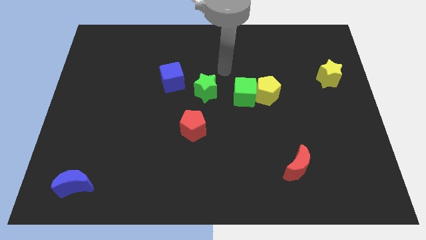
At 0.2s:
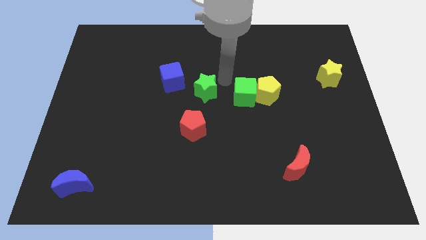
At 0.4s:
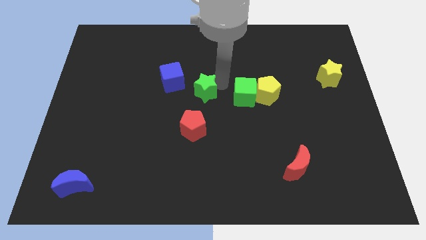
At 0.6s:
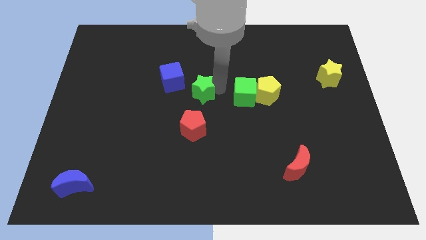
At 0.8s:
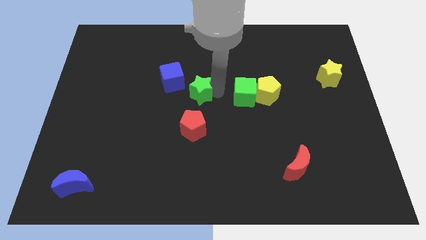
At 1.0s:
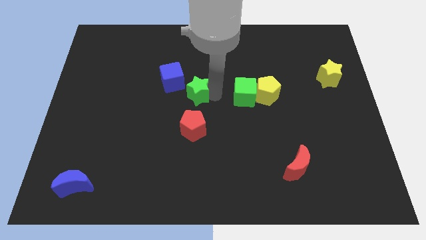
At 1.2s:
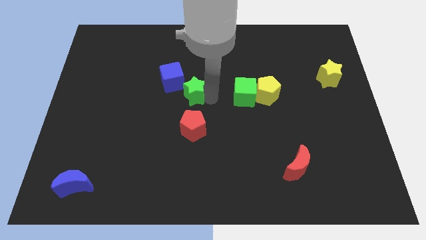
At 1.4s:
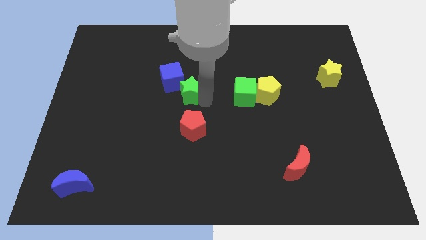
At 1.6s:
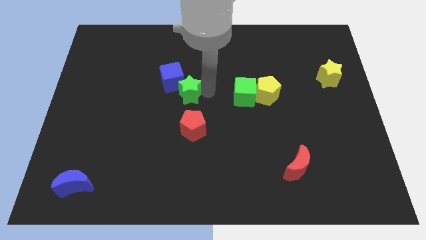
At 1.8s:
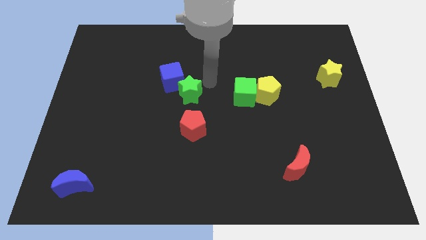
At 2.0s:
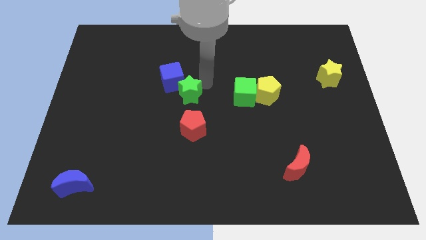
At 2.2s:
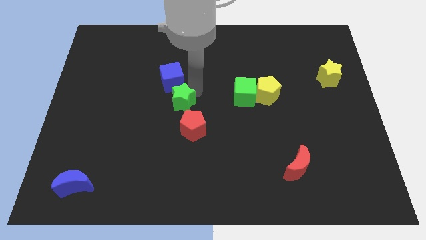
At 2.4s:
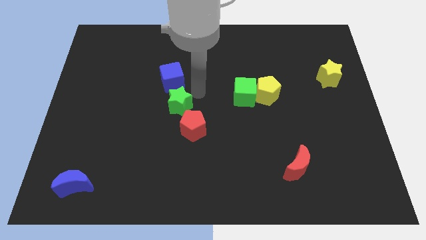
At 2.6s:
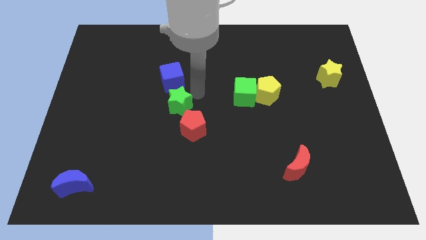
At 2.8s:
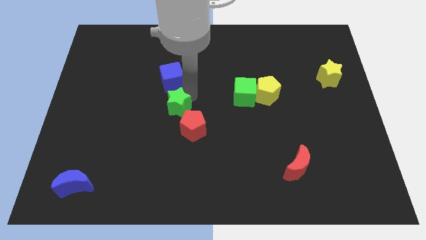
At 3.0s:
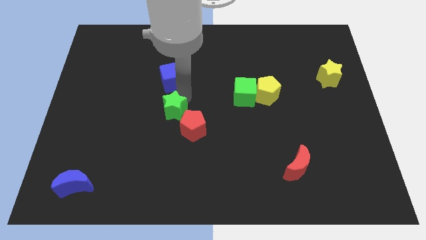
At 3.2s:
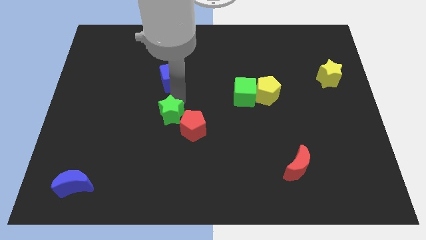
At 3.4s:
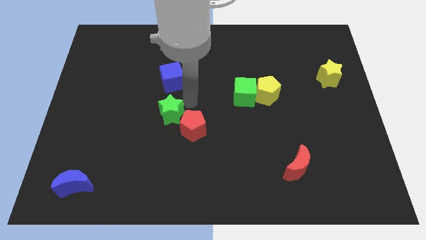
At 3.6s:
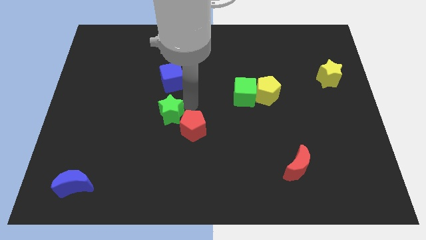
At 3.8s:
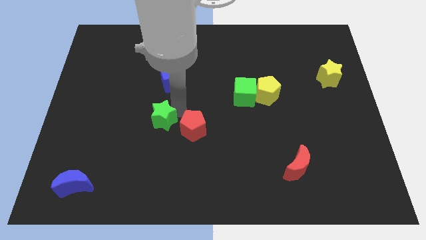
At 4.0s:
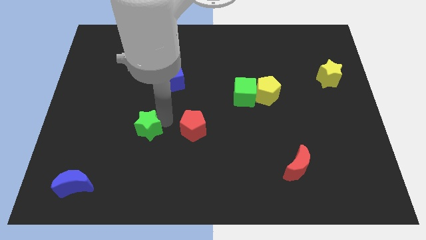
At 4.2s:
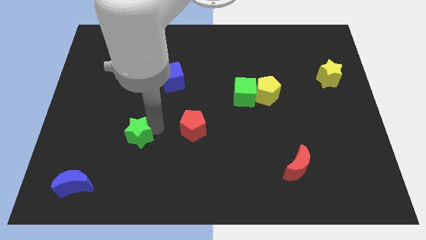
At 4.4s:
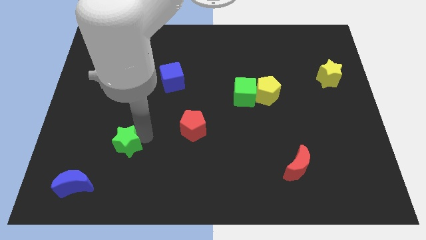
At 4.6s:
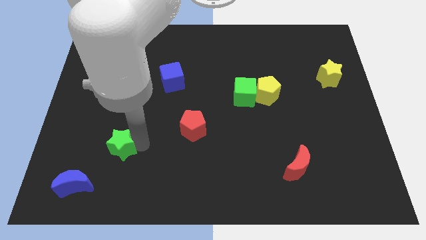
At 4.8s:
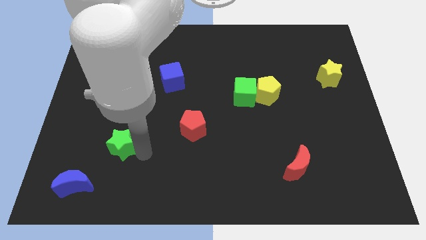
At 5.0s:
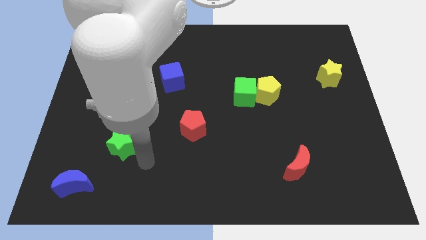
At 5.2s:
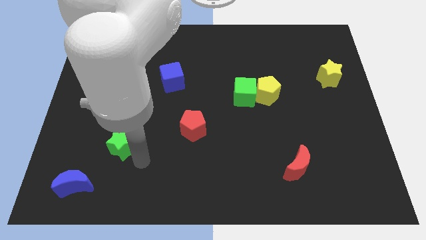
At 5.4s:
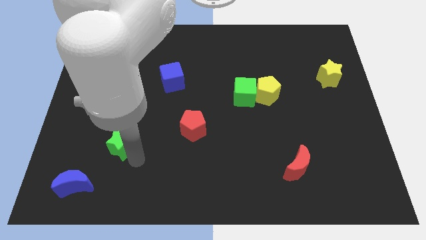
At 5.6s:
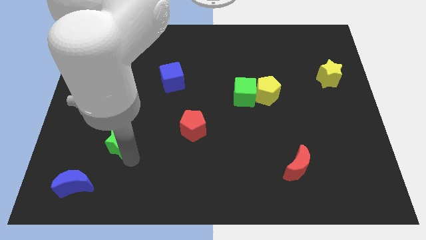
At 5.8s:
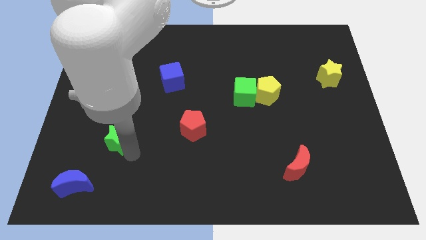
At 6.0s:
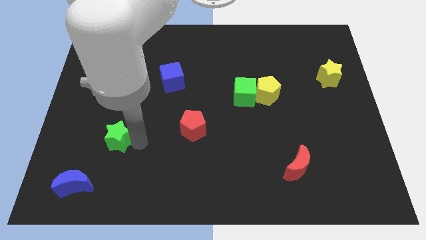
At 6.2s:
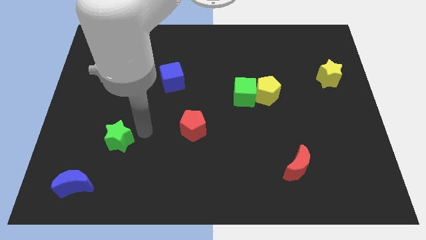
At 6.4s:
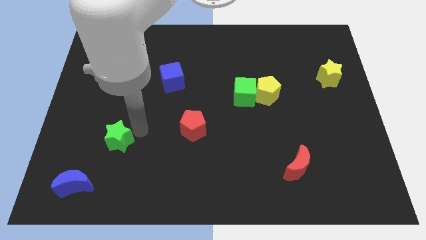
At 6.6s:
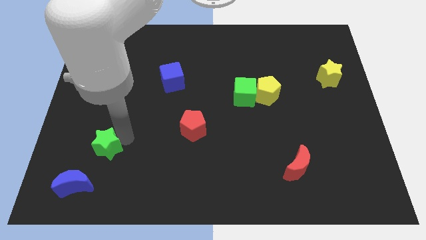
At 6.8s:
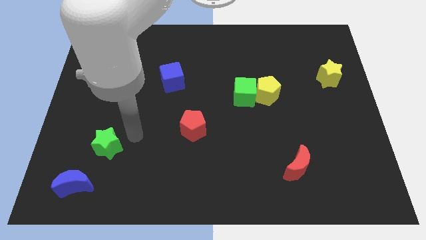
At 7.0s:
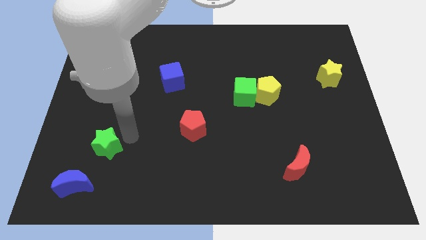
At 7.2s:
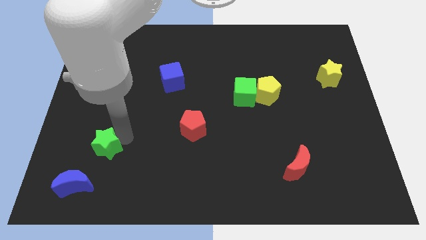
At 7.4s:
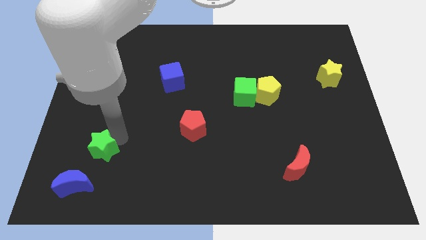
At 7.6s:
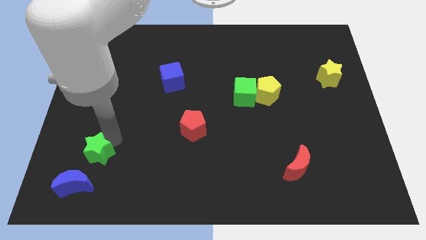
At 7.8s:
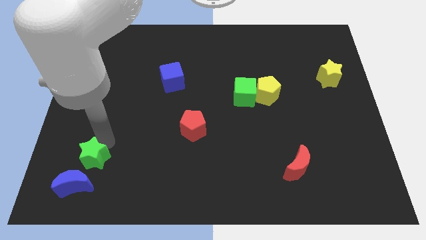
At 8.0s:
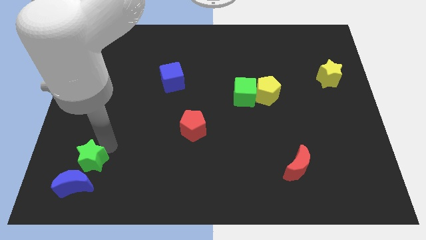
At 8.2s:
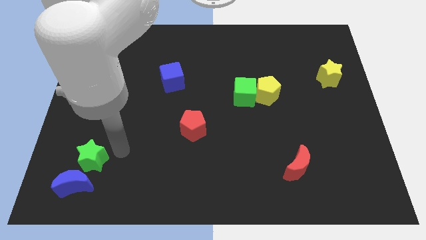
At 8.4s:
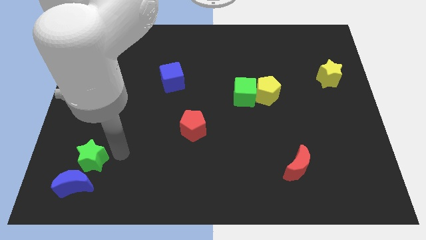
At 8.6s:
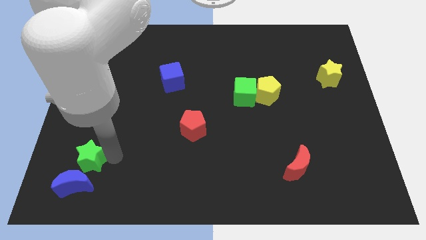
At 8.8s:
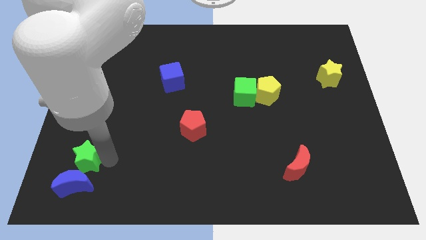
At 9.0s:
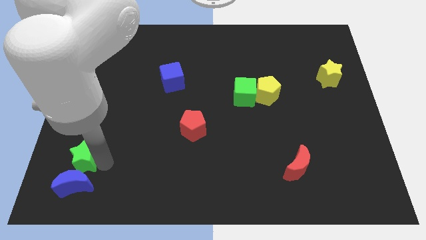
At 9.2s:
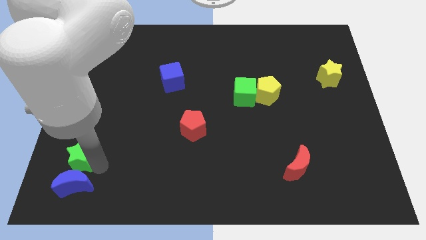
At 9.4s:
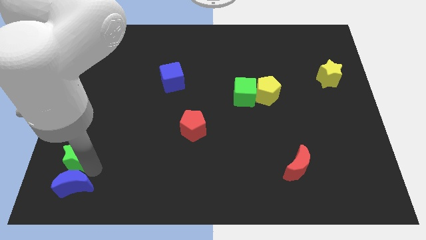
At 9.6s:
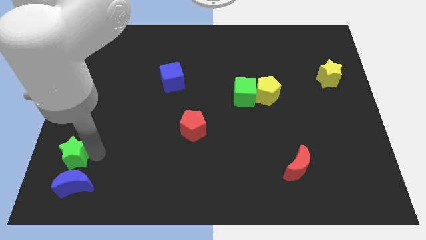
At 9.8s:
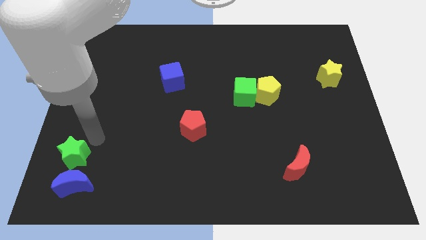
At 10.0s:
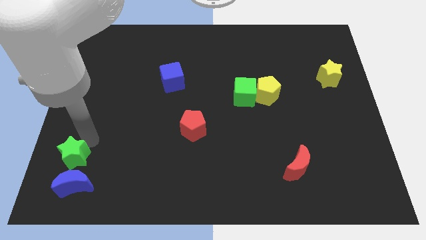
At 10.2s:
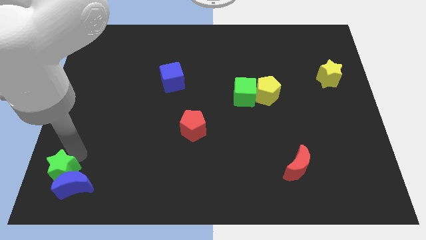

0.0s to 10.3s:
move the green star to the bottom left of the board

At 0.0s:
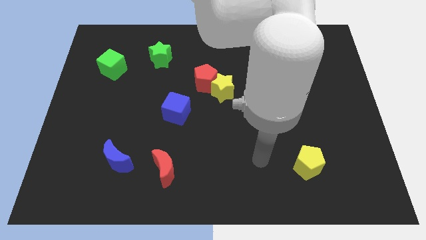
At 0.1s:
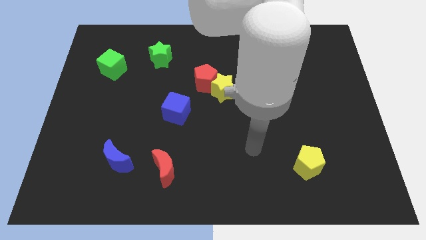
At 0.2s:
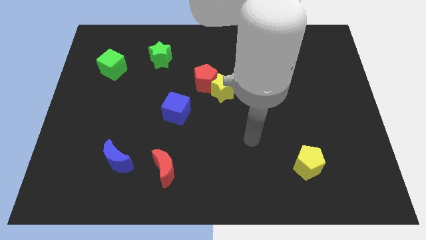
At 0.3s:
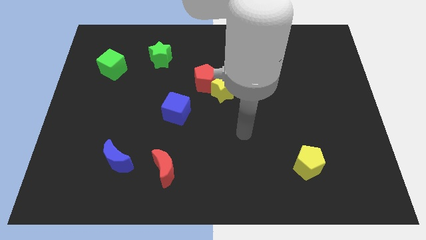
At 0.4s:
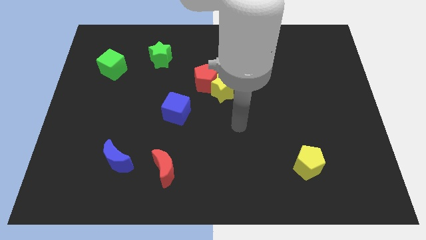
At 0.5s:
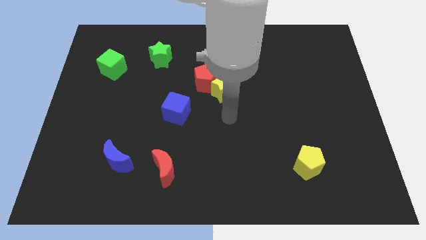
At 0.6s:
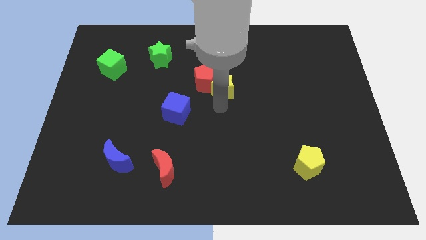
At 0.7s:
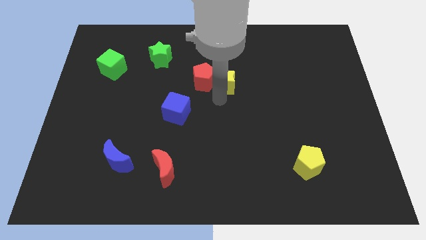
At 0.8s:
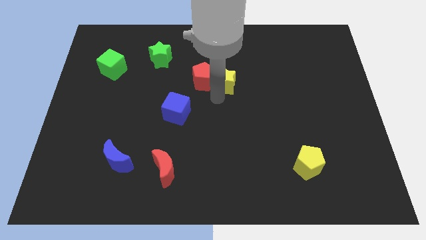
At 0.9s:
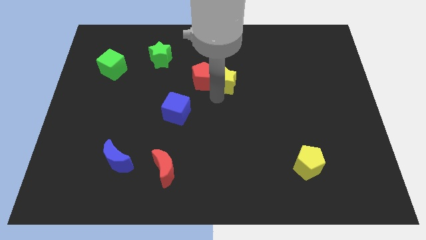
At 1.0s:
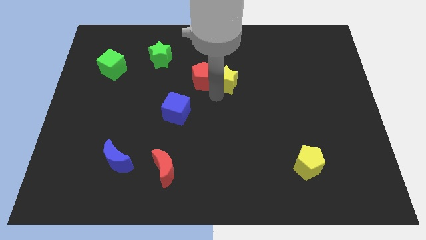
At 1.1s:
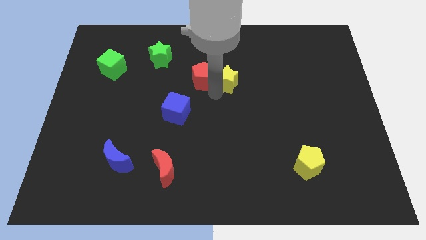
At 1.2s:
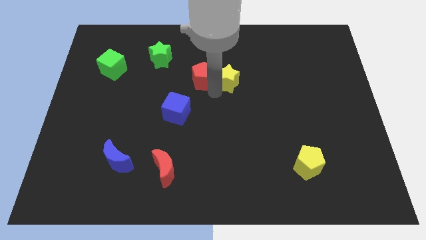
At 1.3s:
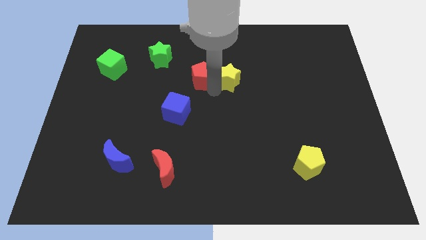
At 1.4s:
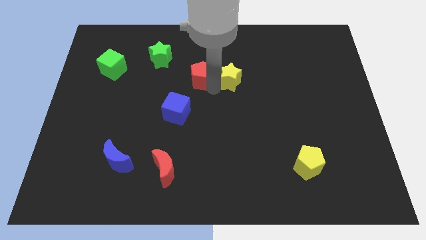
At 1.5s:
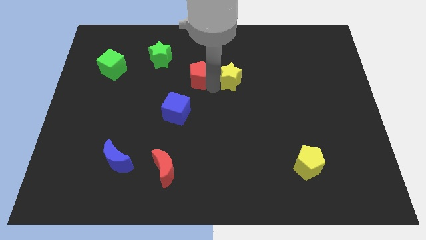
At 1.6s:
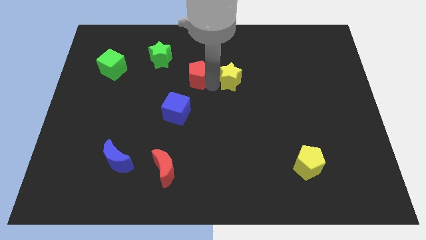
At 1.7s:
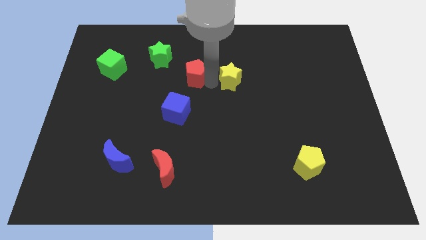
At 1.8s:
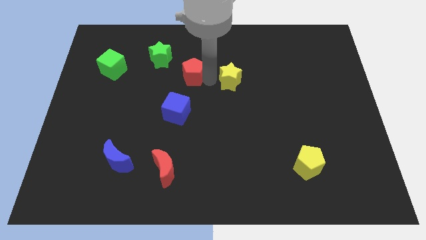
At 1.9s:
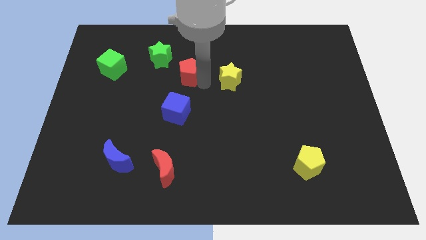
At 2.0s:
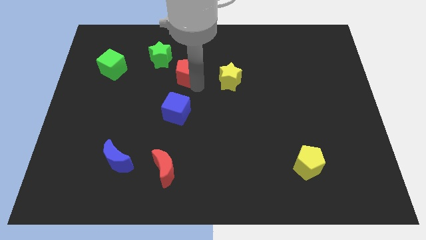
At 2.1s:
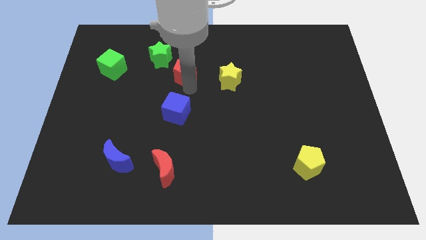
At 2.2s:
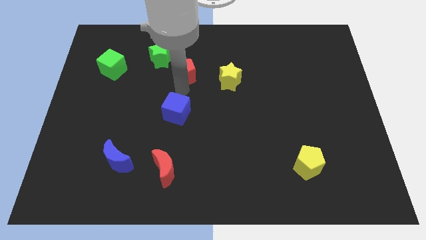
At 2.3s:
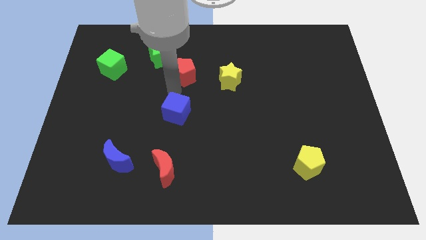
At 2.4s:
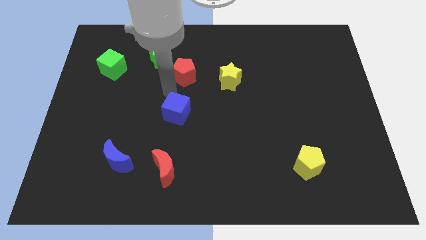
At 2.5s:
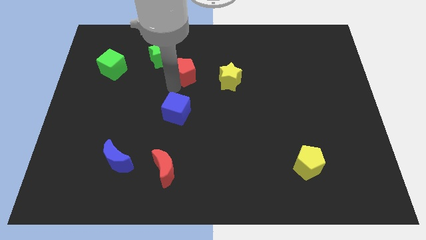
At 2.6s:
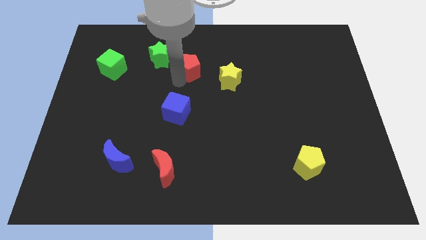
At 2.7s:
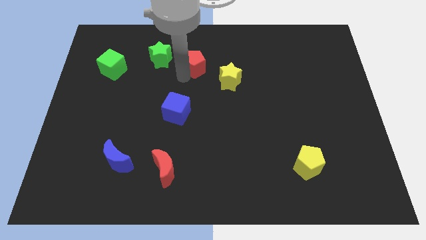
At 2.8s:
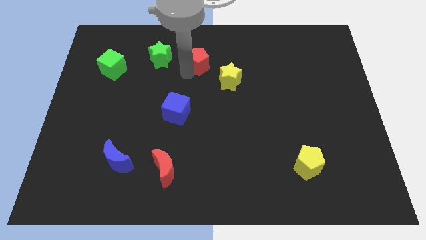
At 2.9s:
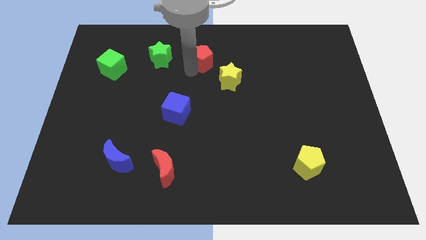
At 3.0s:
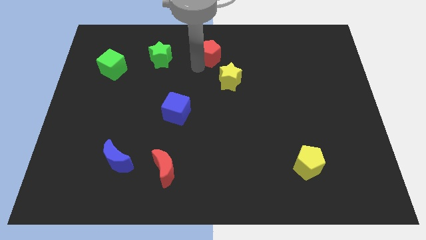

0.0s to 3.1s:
put the red pentagon to the top
